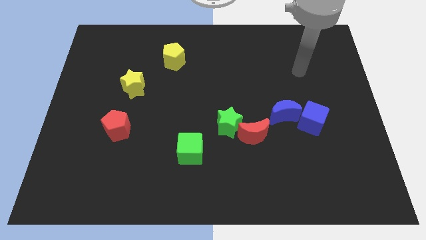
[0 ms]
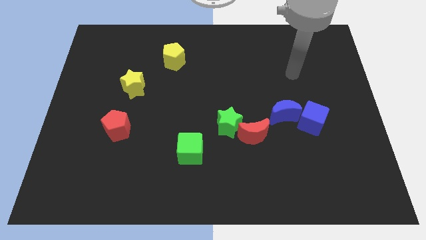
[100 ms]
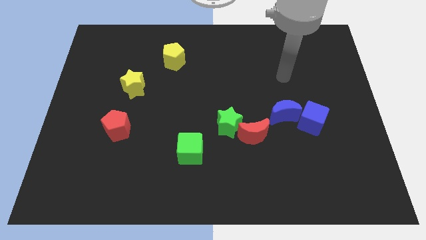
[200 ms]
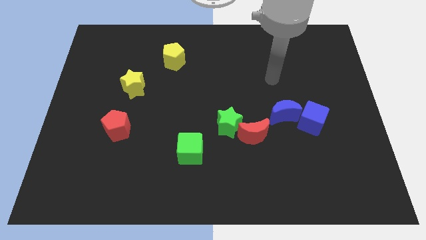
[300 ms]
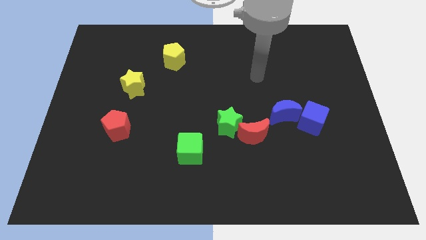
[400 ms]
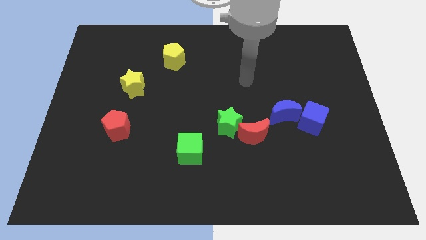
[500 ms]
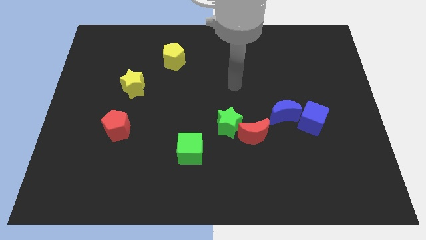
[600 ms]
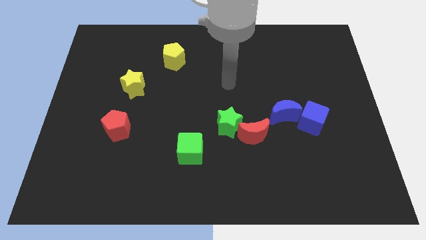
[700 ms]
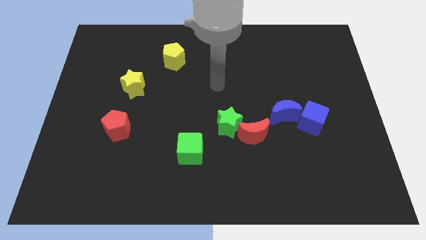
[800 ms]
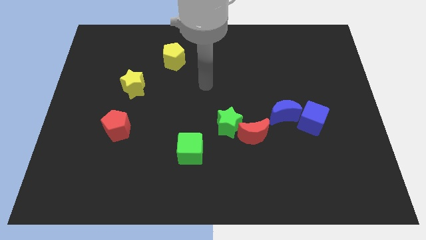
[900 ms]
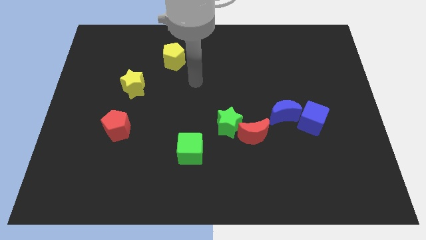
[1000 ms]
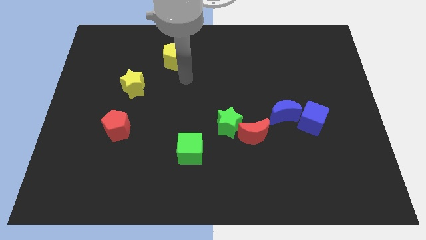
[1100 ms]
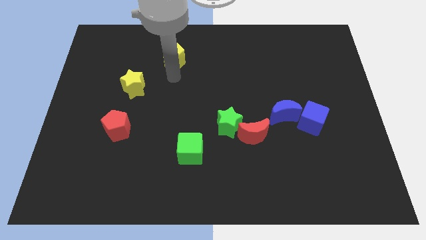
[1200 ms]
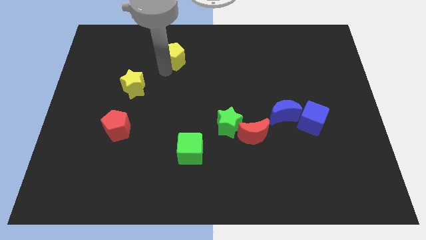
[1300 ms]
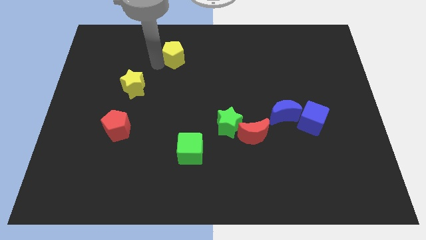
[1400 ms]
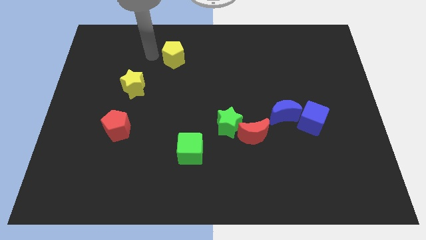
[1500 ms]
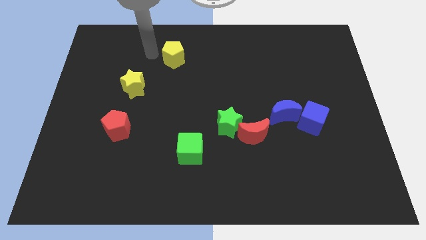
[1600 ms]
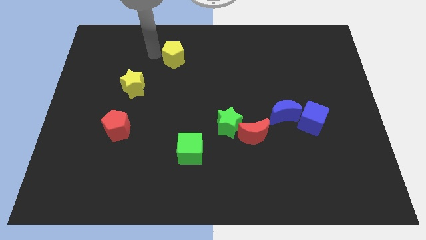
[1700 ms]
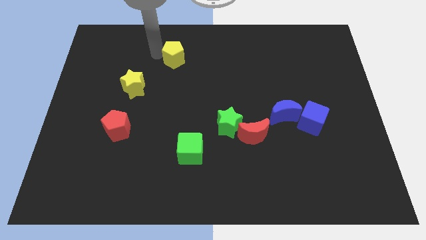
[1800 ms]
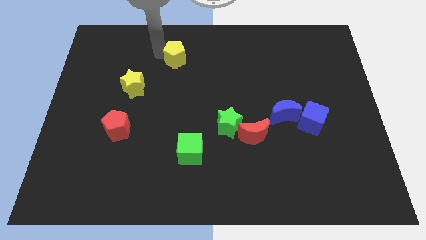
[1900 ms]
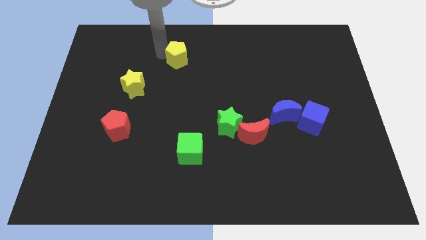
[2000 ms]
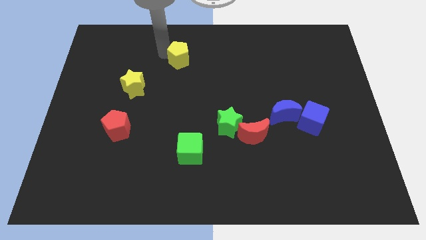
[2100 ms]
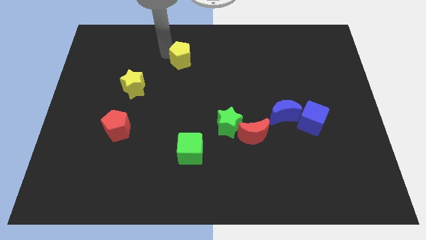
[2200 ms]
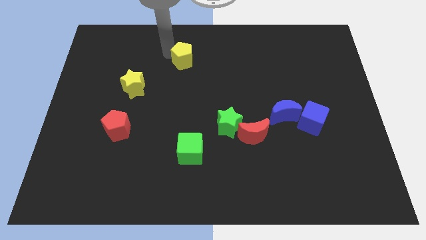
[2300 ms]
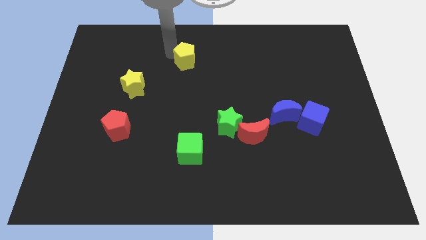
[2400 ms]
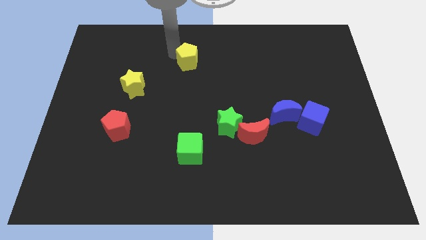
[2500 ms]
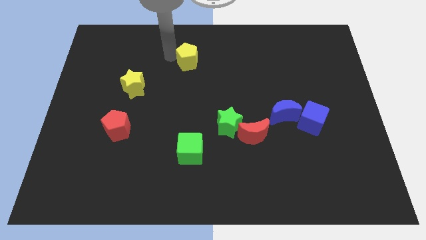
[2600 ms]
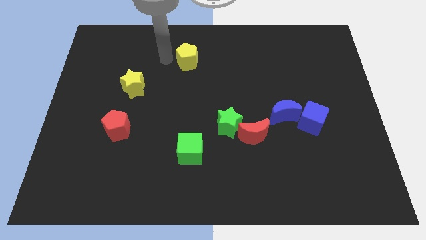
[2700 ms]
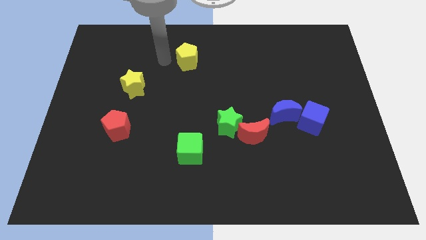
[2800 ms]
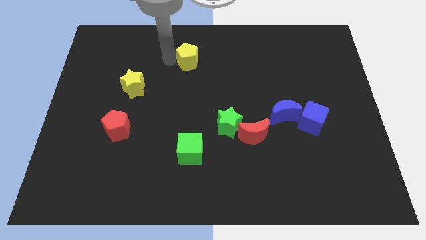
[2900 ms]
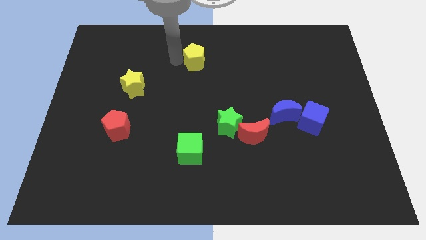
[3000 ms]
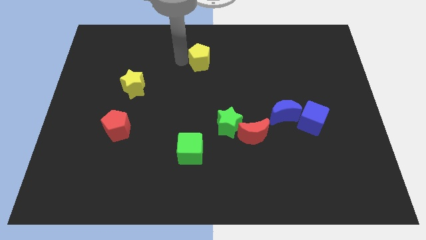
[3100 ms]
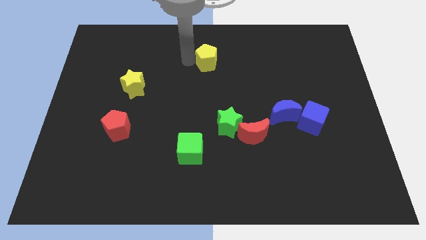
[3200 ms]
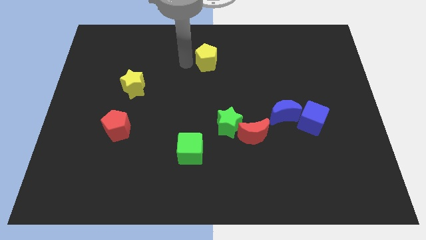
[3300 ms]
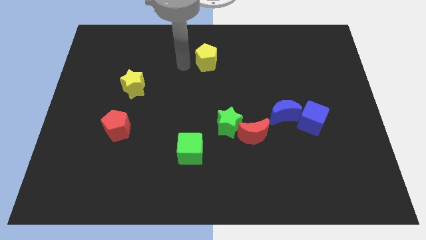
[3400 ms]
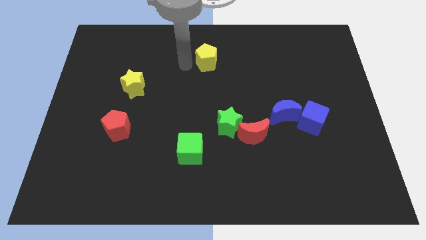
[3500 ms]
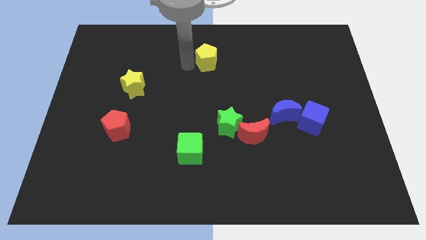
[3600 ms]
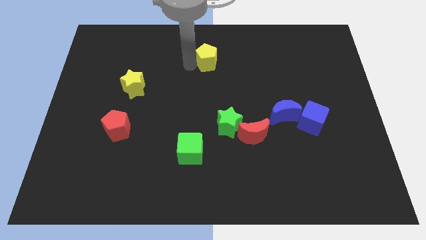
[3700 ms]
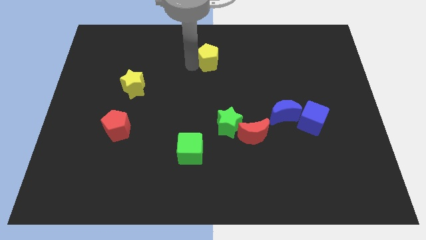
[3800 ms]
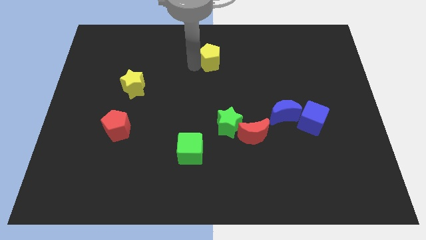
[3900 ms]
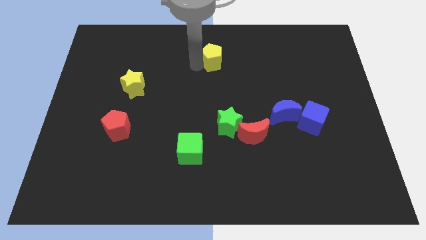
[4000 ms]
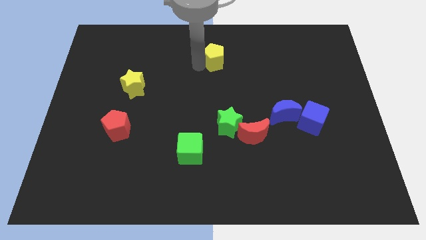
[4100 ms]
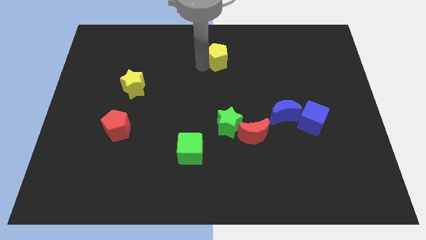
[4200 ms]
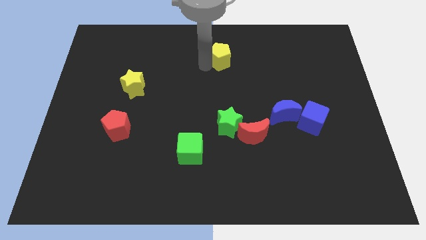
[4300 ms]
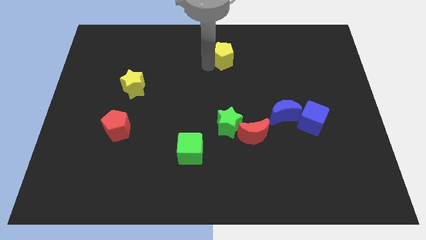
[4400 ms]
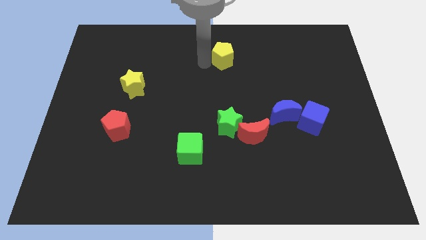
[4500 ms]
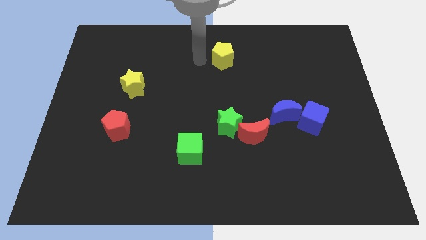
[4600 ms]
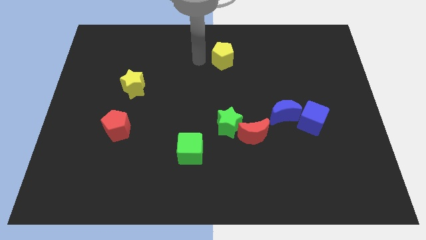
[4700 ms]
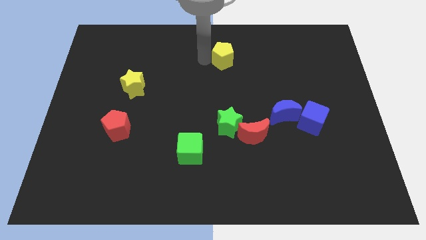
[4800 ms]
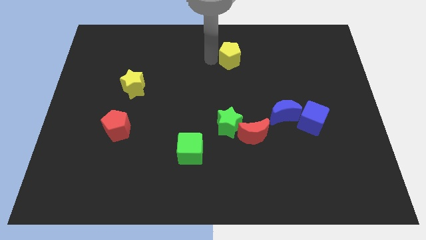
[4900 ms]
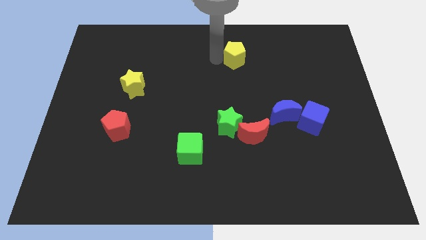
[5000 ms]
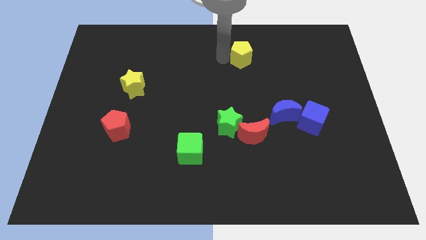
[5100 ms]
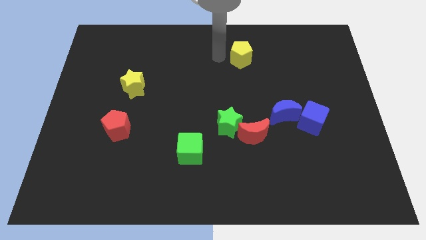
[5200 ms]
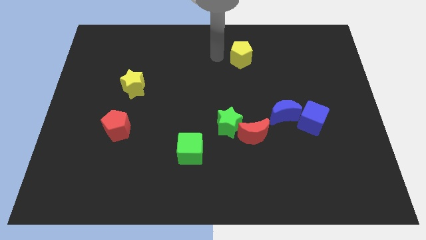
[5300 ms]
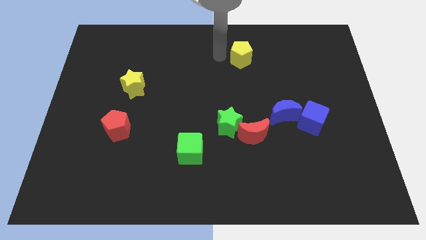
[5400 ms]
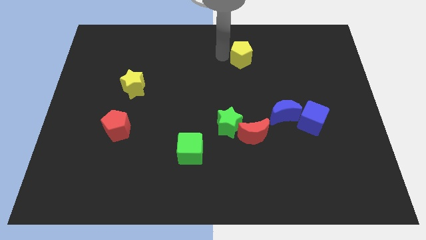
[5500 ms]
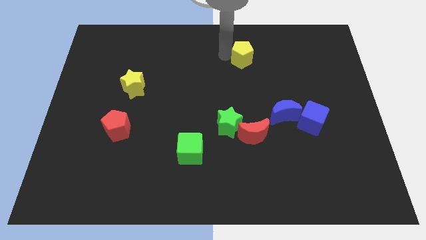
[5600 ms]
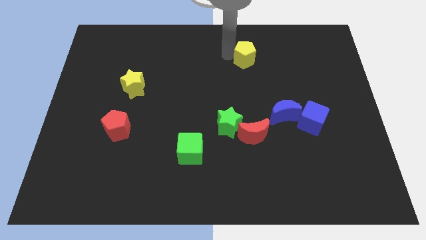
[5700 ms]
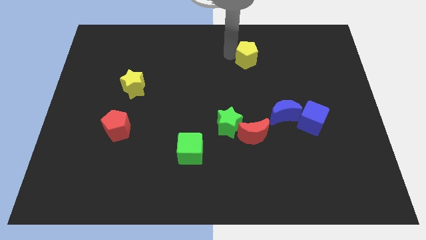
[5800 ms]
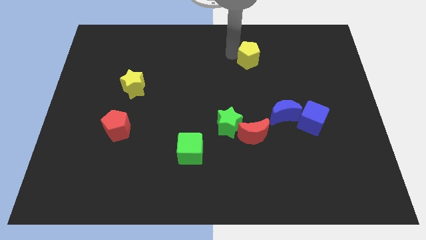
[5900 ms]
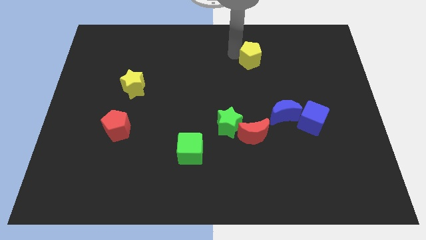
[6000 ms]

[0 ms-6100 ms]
push the yellow pentagon to the right

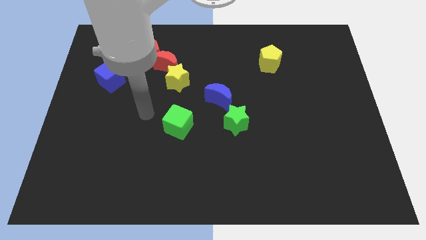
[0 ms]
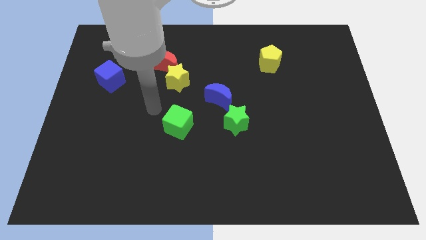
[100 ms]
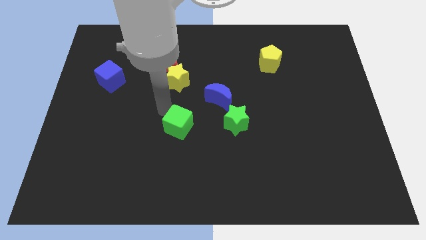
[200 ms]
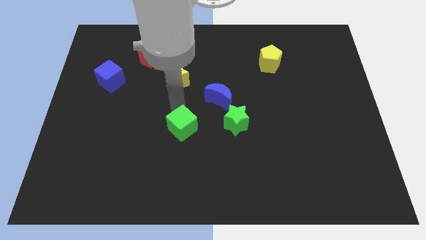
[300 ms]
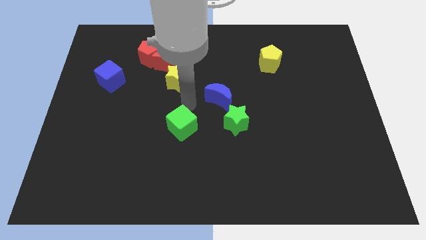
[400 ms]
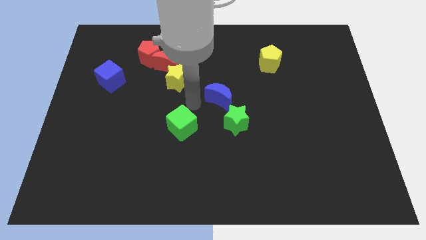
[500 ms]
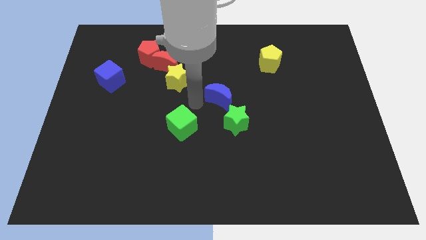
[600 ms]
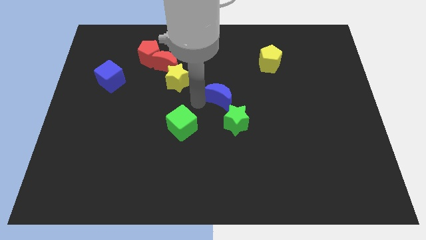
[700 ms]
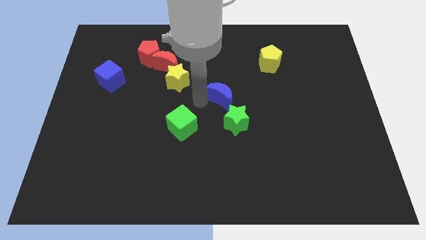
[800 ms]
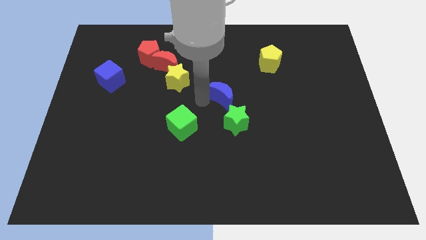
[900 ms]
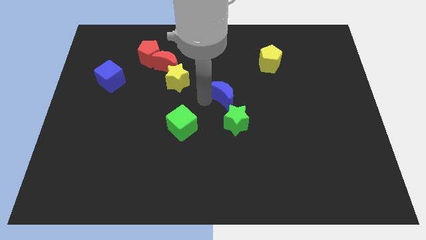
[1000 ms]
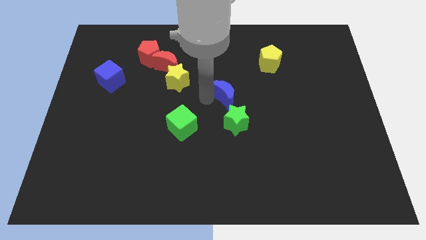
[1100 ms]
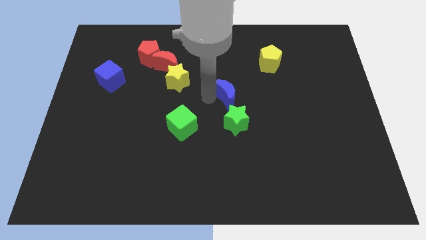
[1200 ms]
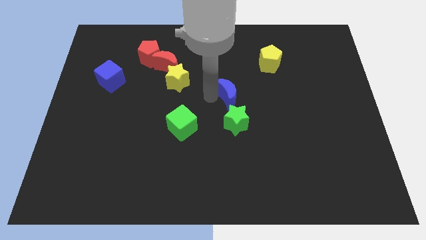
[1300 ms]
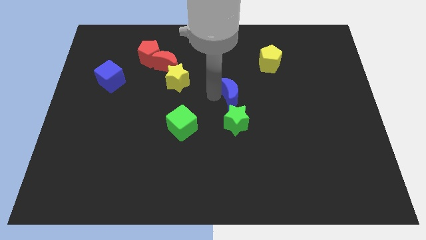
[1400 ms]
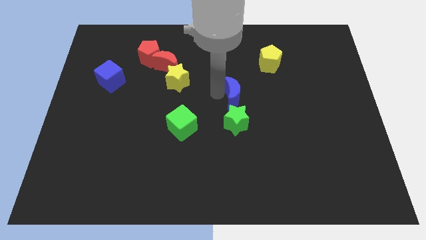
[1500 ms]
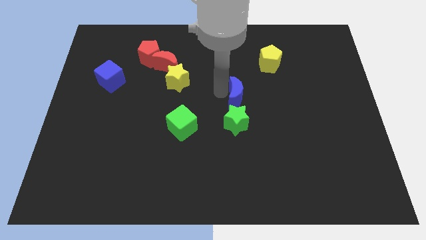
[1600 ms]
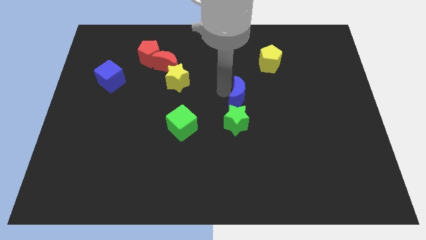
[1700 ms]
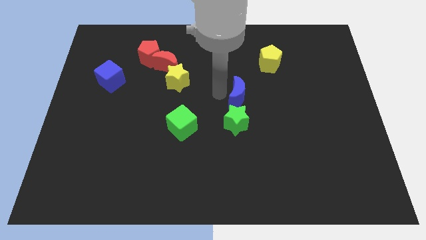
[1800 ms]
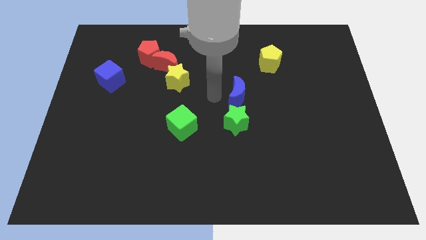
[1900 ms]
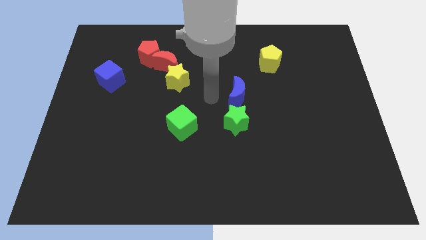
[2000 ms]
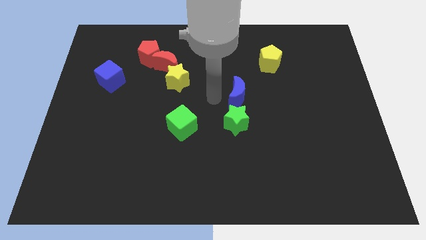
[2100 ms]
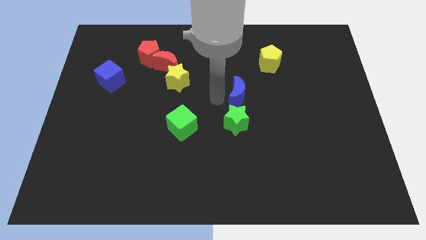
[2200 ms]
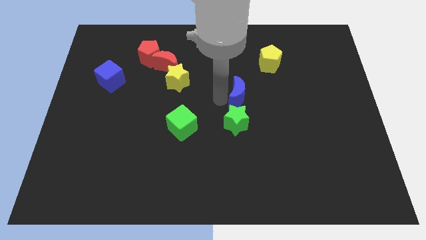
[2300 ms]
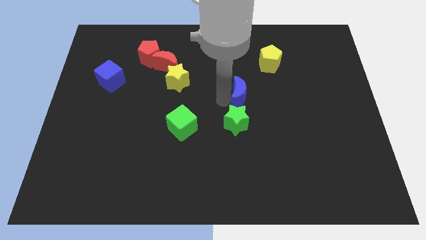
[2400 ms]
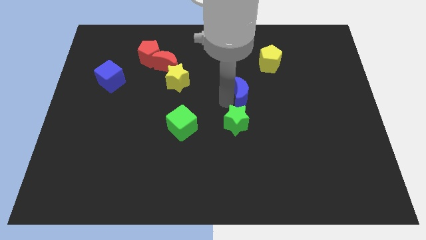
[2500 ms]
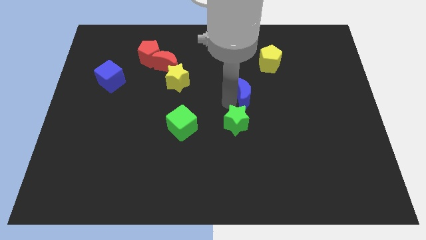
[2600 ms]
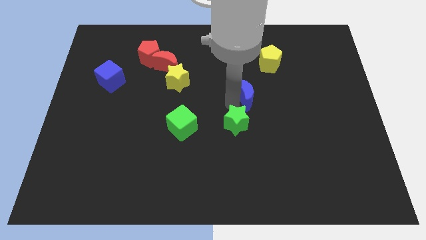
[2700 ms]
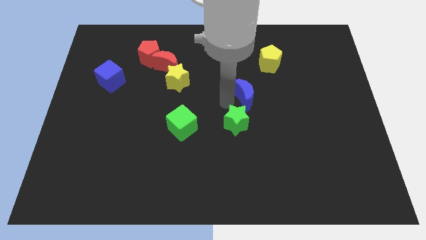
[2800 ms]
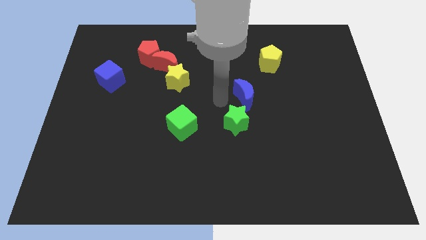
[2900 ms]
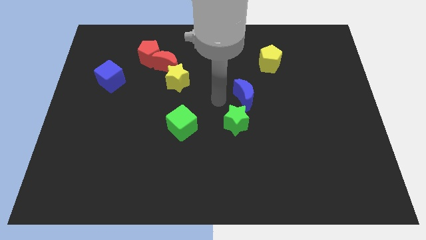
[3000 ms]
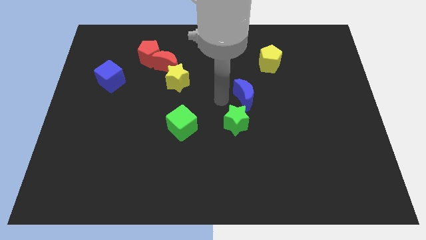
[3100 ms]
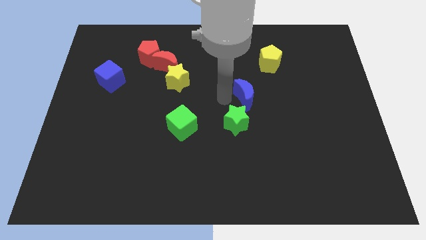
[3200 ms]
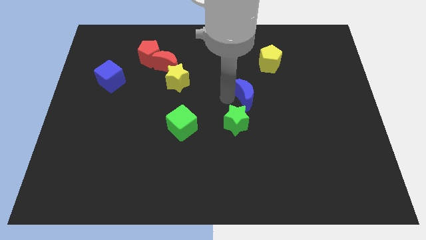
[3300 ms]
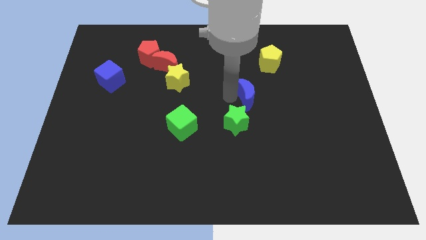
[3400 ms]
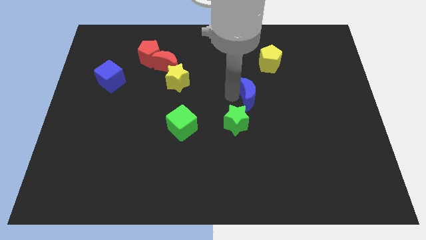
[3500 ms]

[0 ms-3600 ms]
push the blue moon right somewhat
